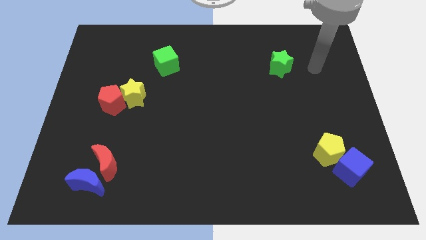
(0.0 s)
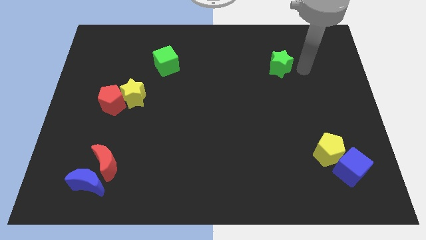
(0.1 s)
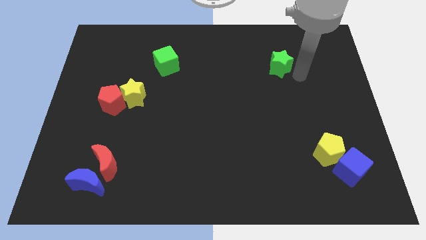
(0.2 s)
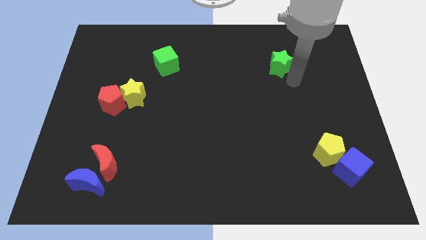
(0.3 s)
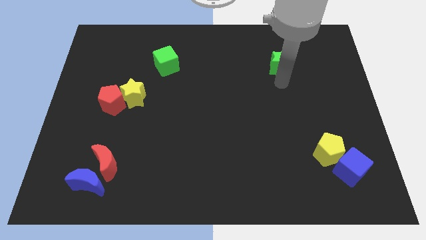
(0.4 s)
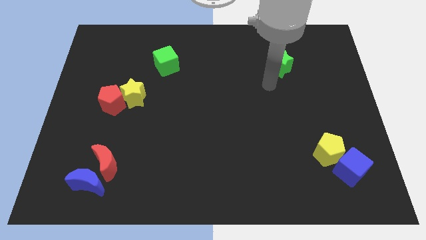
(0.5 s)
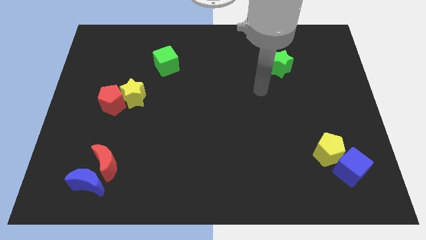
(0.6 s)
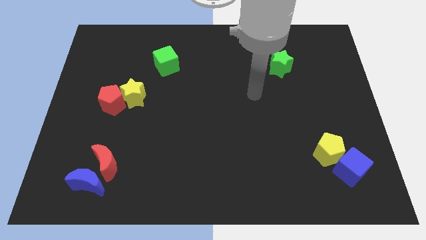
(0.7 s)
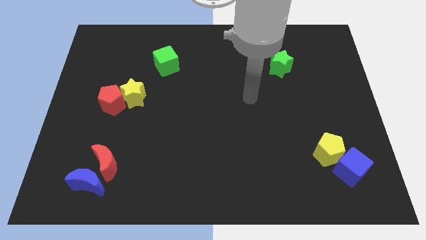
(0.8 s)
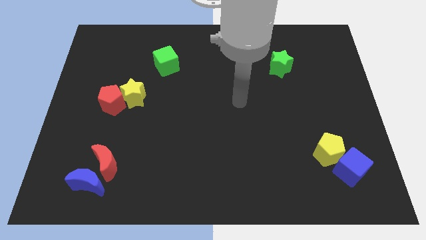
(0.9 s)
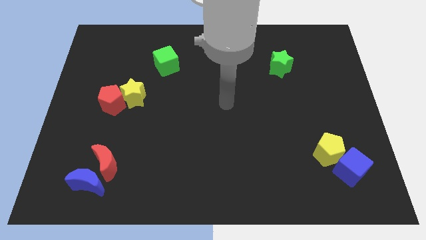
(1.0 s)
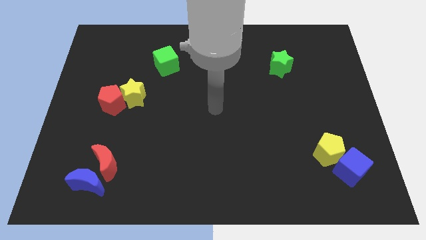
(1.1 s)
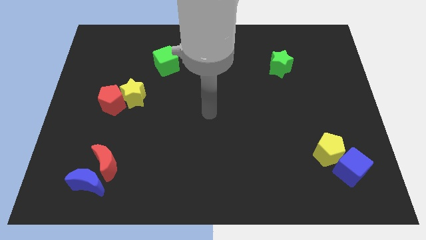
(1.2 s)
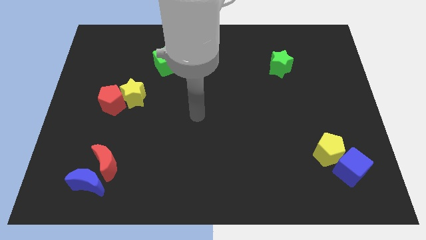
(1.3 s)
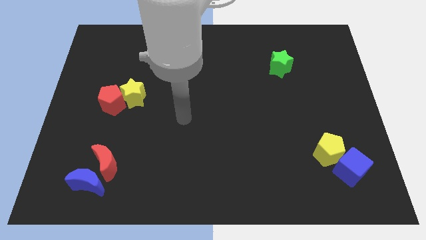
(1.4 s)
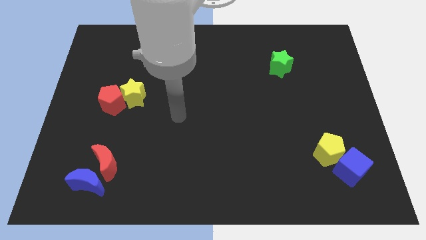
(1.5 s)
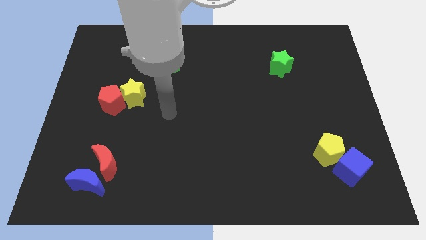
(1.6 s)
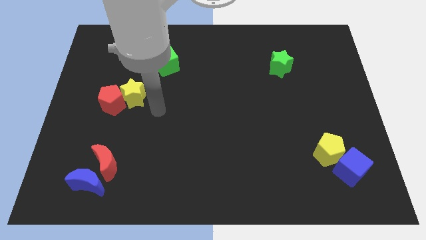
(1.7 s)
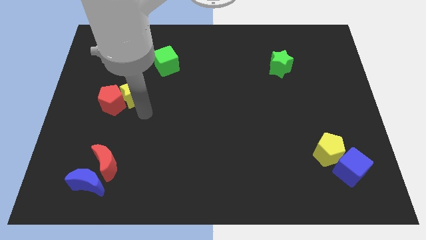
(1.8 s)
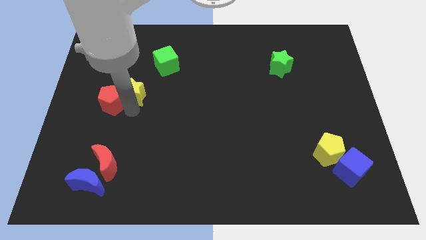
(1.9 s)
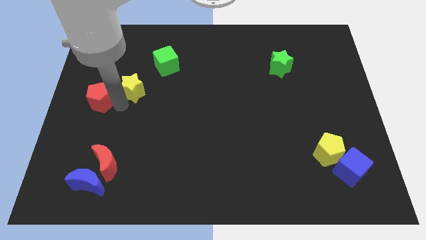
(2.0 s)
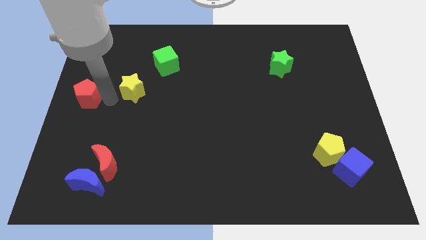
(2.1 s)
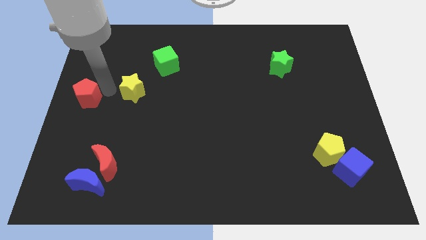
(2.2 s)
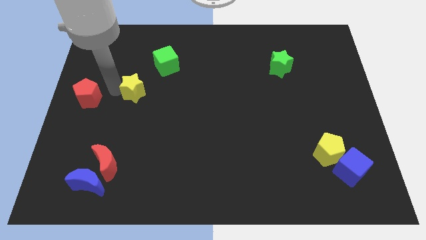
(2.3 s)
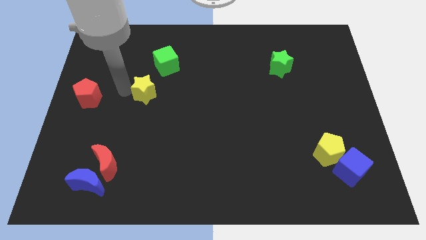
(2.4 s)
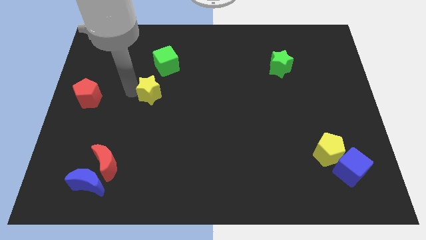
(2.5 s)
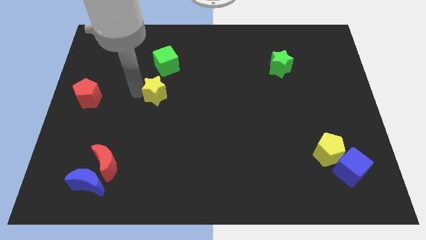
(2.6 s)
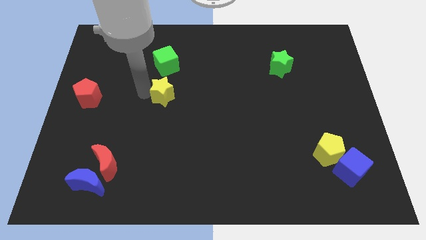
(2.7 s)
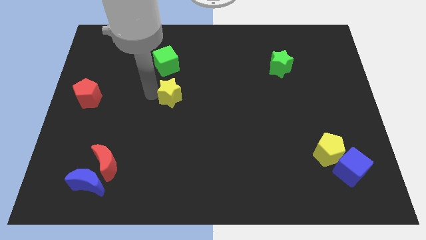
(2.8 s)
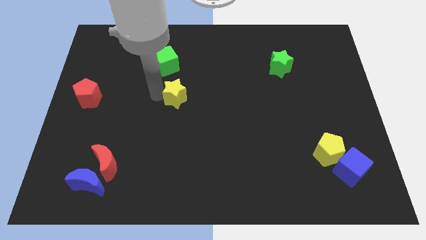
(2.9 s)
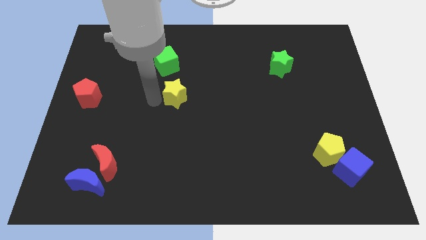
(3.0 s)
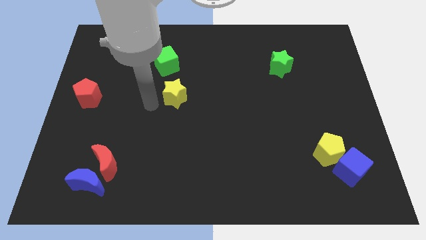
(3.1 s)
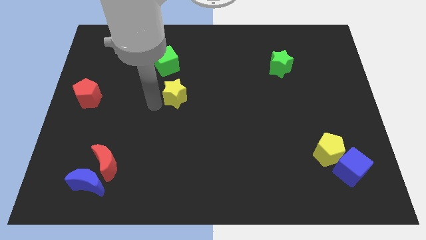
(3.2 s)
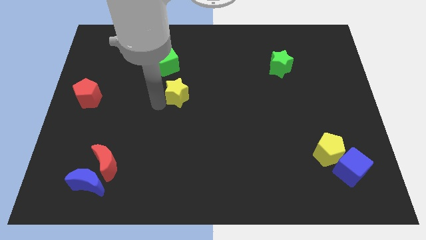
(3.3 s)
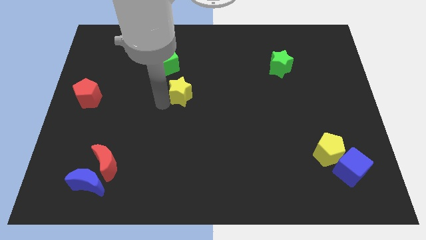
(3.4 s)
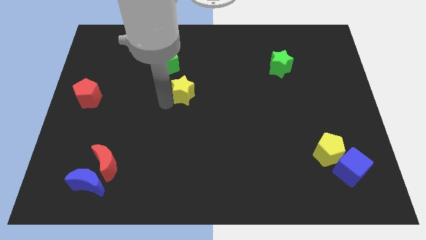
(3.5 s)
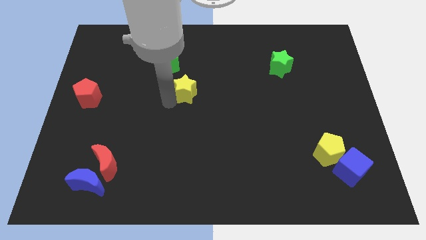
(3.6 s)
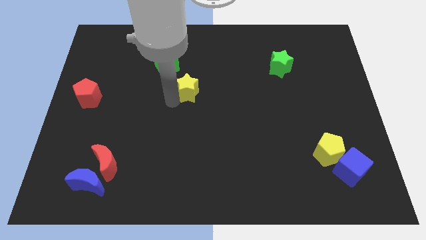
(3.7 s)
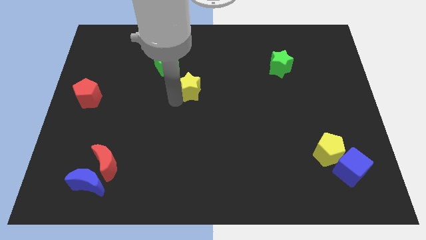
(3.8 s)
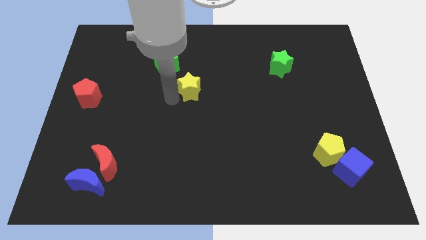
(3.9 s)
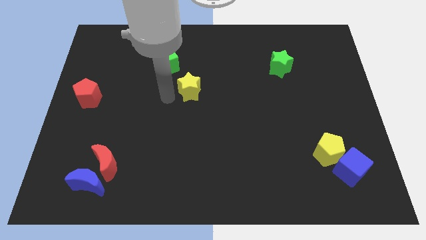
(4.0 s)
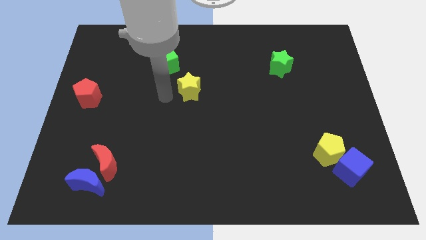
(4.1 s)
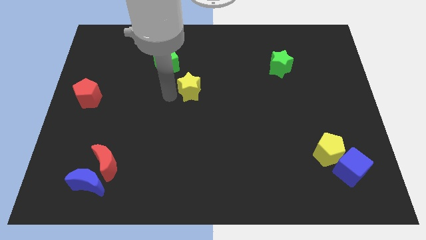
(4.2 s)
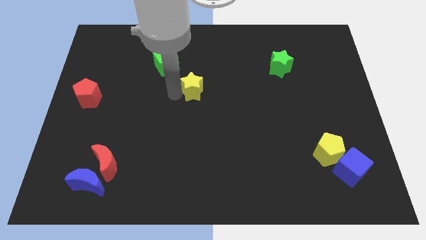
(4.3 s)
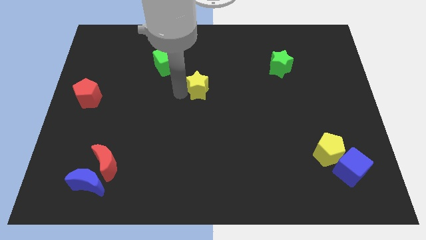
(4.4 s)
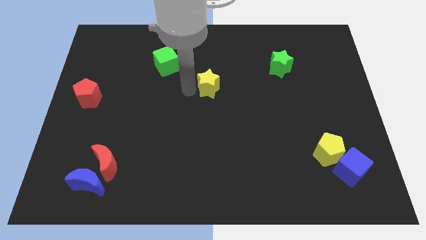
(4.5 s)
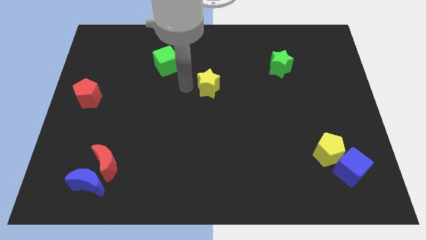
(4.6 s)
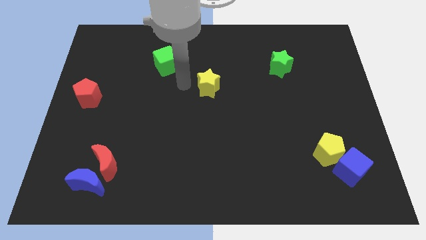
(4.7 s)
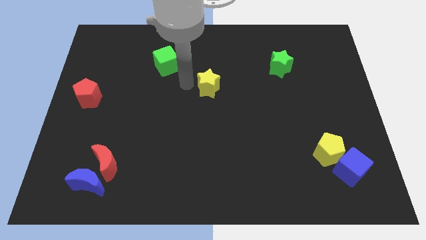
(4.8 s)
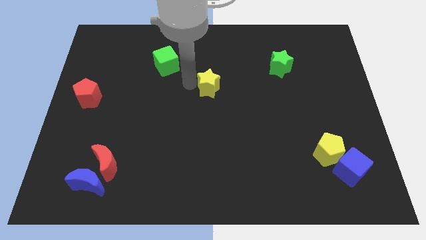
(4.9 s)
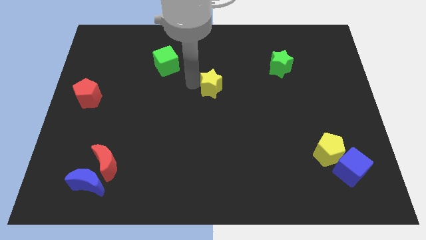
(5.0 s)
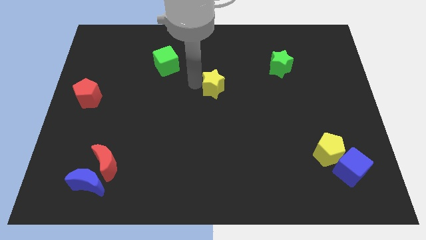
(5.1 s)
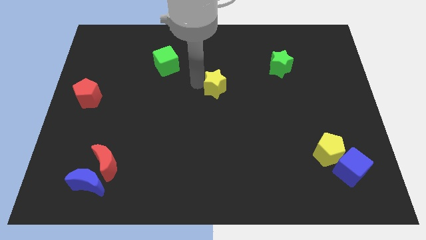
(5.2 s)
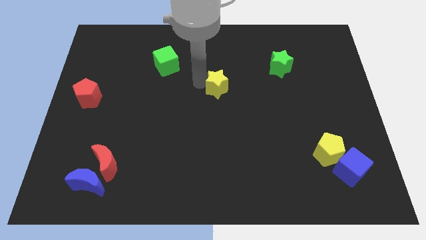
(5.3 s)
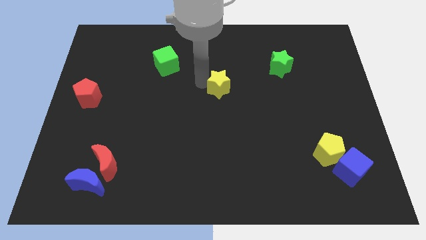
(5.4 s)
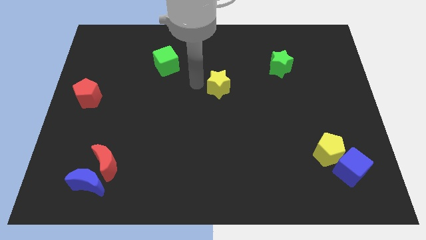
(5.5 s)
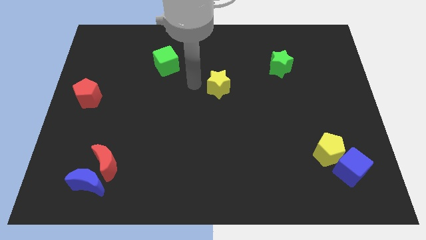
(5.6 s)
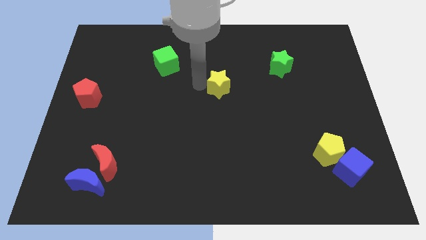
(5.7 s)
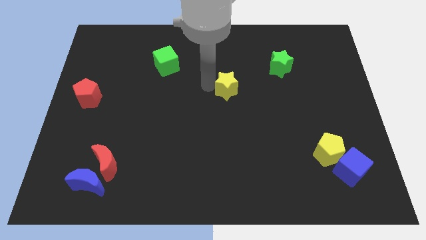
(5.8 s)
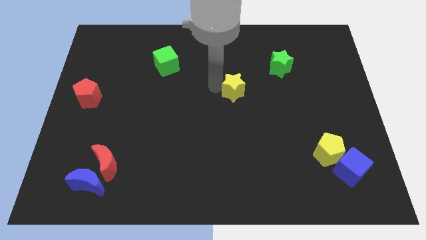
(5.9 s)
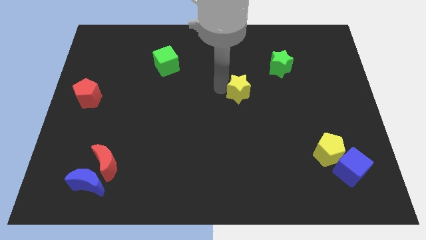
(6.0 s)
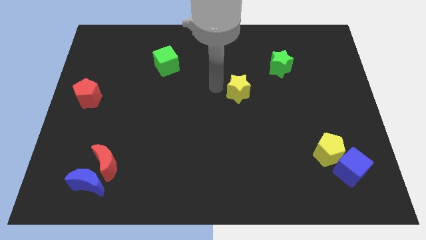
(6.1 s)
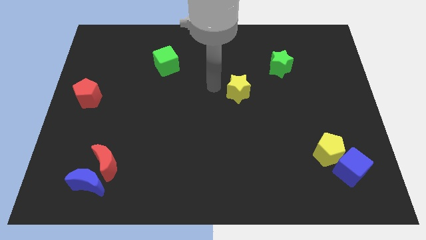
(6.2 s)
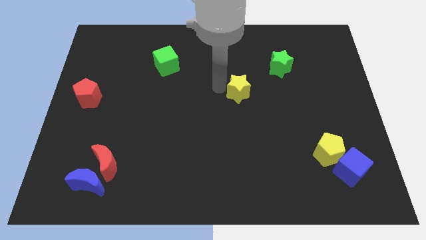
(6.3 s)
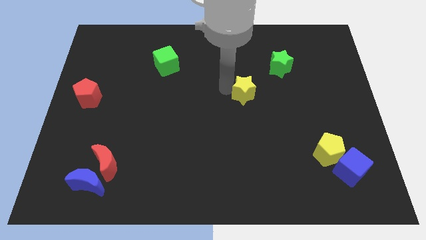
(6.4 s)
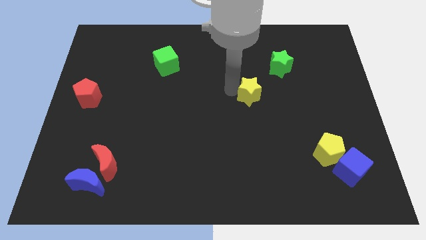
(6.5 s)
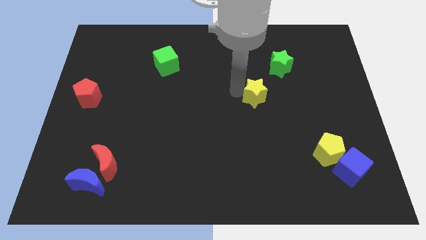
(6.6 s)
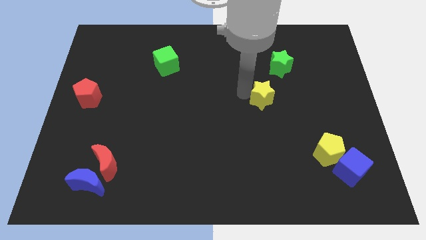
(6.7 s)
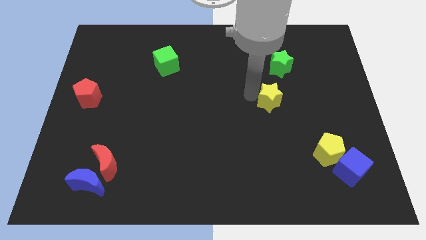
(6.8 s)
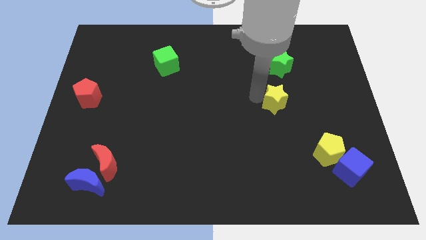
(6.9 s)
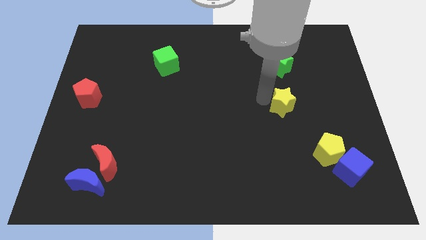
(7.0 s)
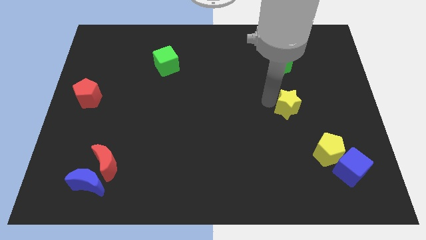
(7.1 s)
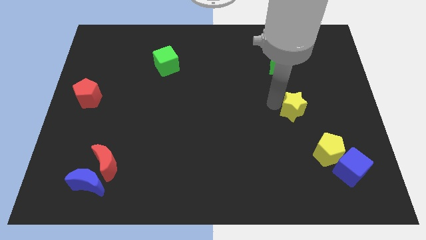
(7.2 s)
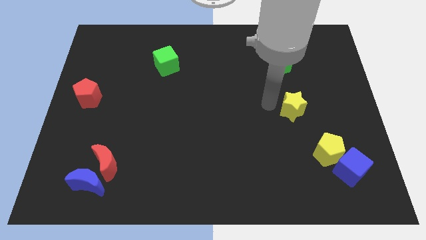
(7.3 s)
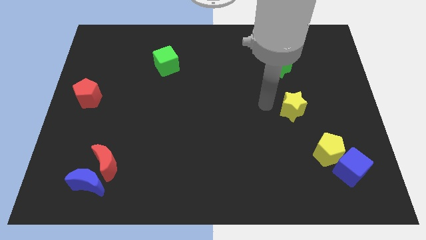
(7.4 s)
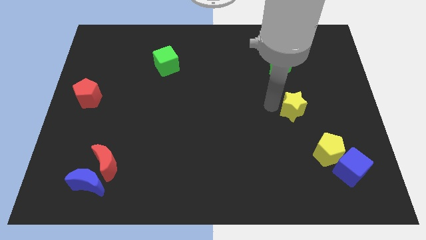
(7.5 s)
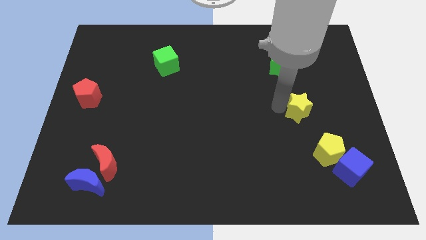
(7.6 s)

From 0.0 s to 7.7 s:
move the yellow star to the top of the yellow pentagon

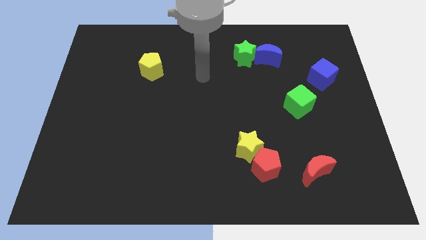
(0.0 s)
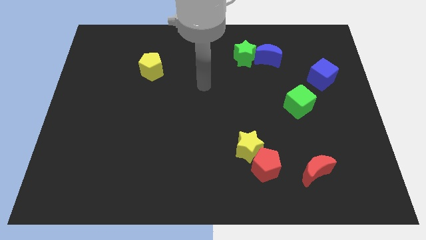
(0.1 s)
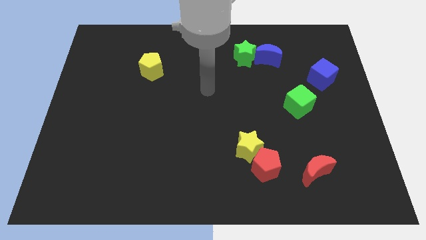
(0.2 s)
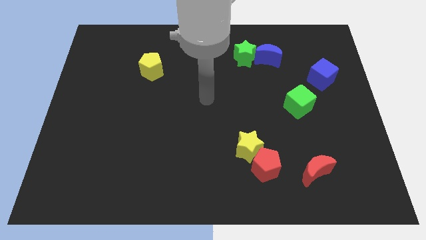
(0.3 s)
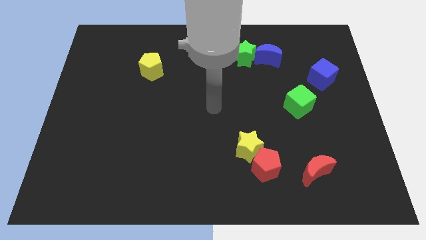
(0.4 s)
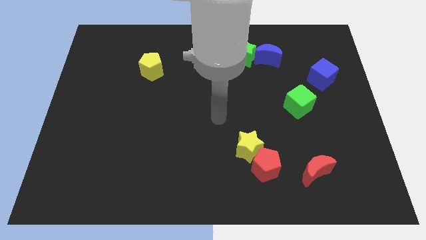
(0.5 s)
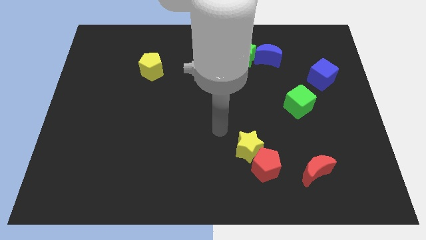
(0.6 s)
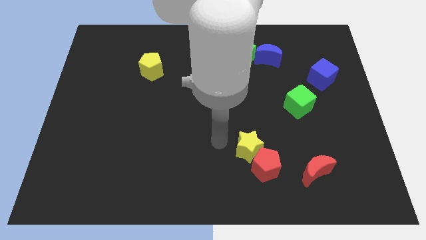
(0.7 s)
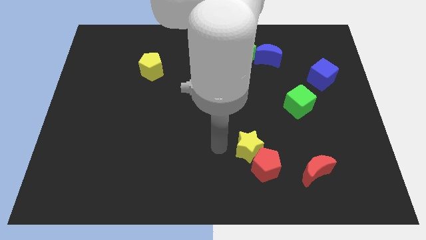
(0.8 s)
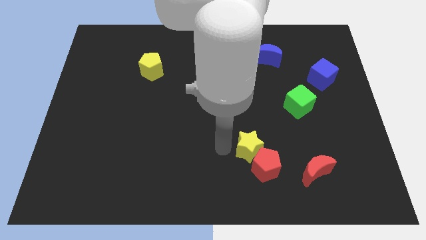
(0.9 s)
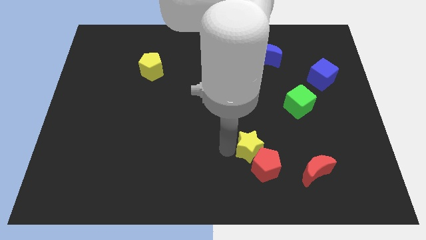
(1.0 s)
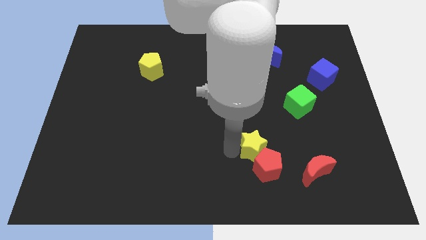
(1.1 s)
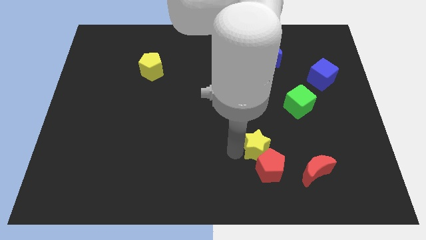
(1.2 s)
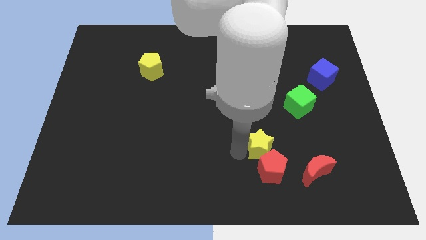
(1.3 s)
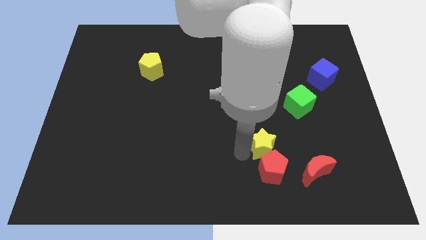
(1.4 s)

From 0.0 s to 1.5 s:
push the yellow star to the top left side of the red moon
